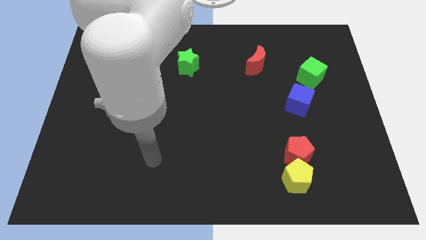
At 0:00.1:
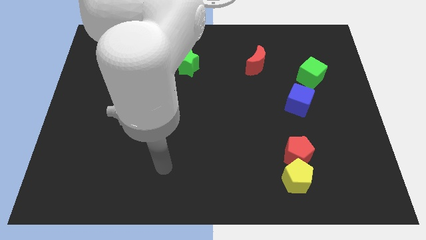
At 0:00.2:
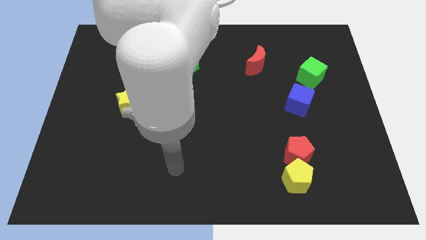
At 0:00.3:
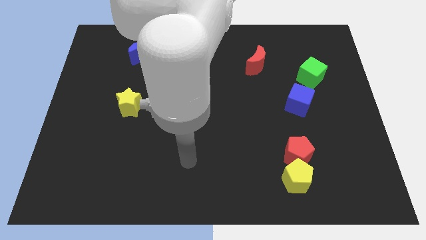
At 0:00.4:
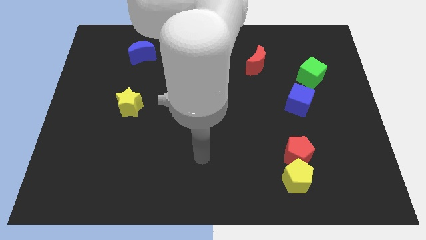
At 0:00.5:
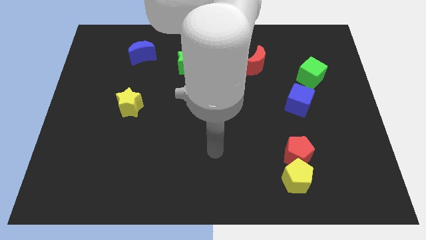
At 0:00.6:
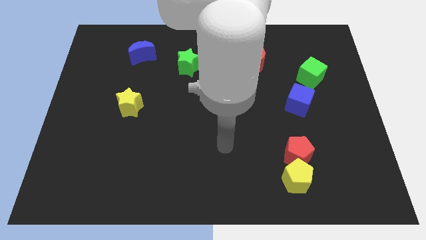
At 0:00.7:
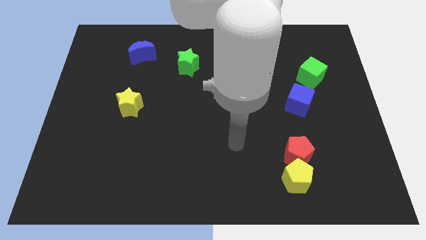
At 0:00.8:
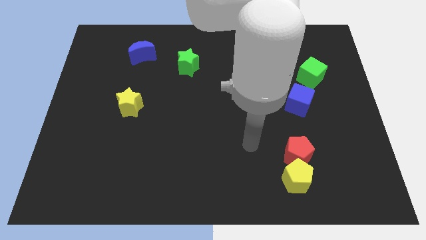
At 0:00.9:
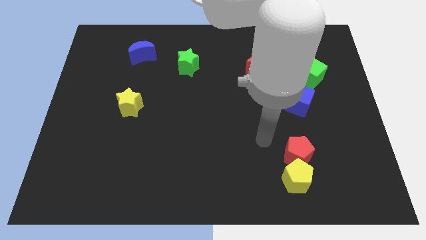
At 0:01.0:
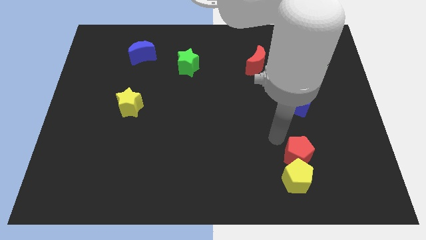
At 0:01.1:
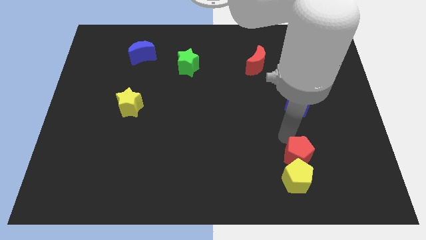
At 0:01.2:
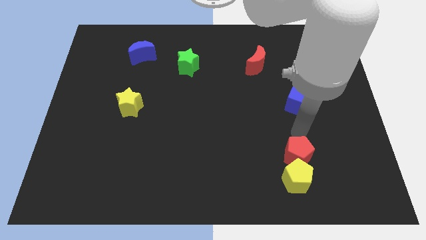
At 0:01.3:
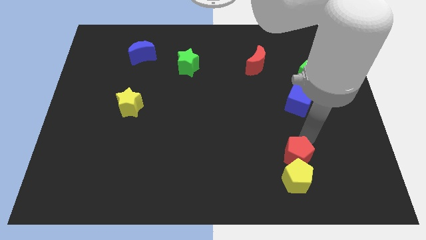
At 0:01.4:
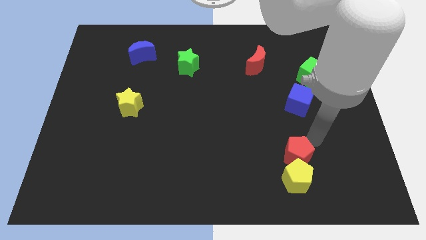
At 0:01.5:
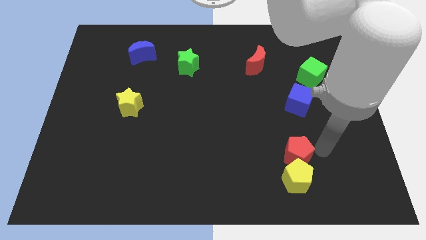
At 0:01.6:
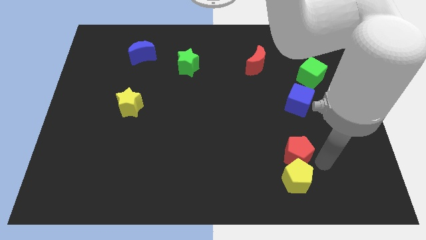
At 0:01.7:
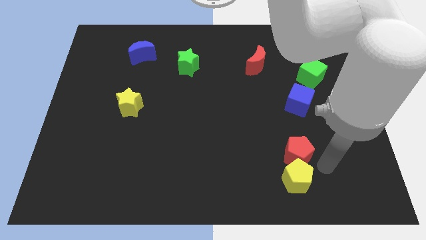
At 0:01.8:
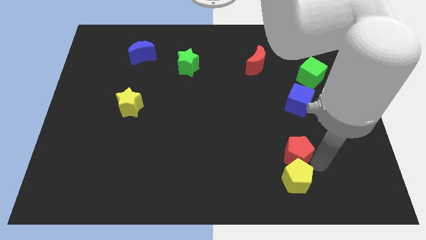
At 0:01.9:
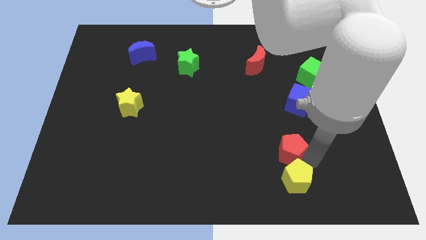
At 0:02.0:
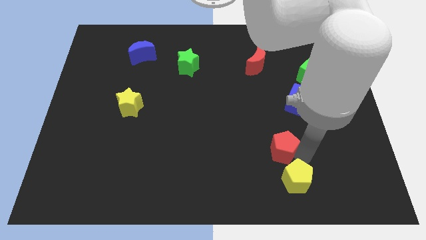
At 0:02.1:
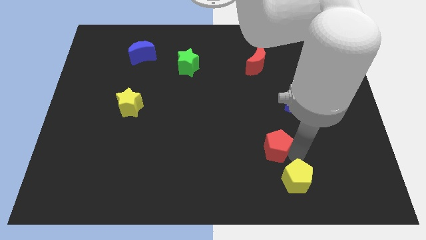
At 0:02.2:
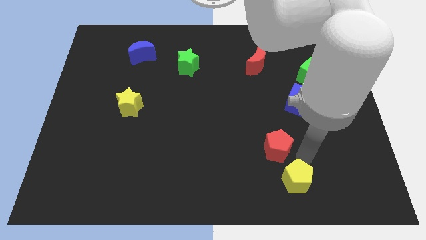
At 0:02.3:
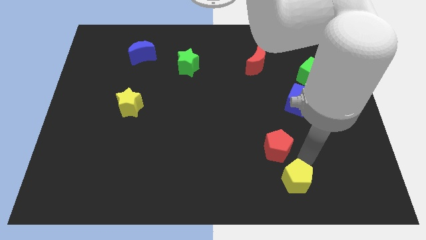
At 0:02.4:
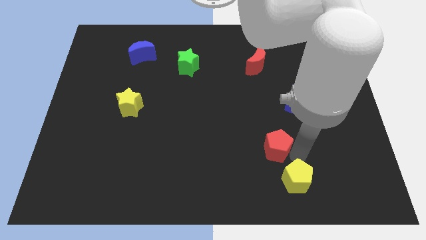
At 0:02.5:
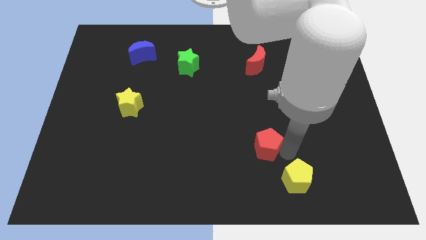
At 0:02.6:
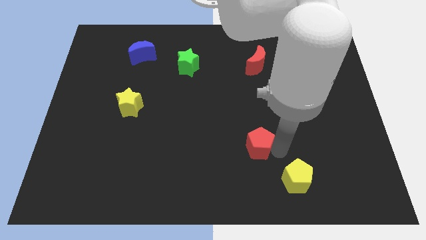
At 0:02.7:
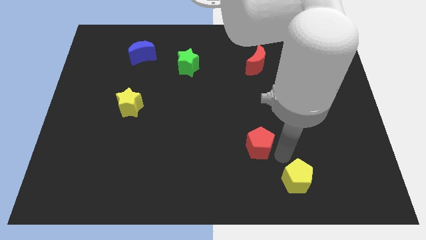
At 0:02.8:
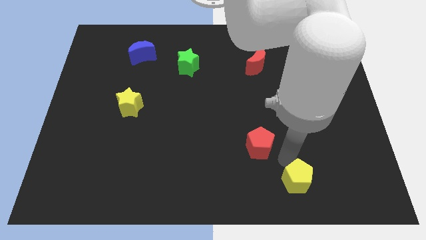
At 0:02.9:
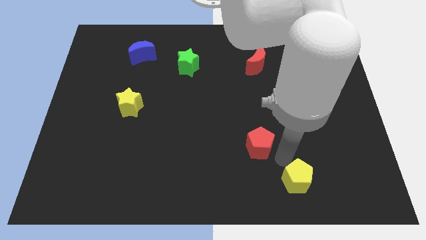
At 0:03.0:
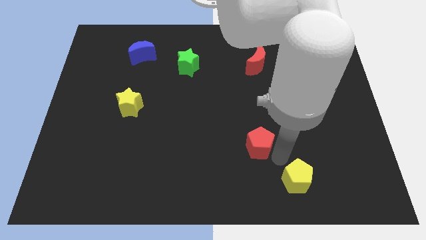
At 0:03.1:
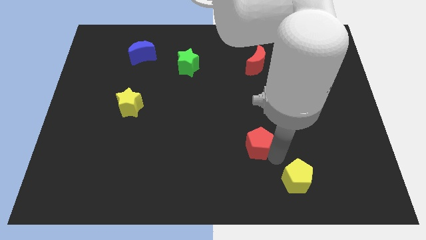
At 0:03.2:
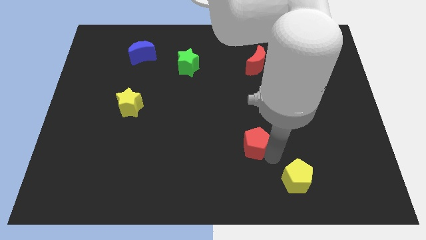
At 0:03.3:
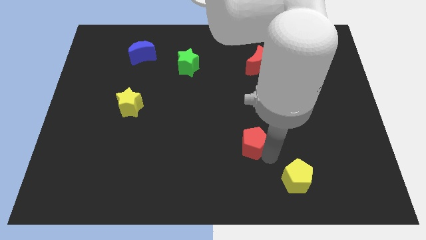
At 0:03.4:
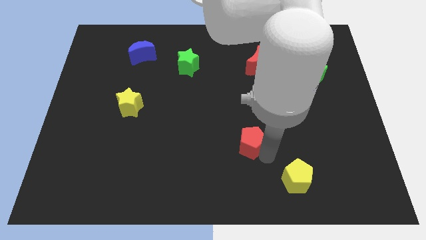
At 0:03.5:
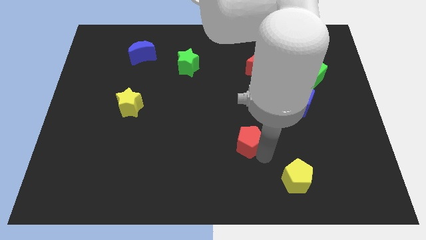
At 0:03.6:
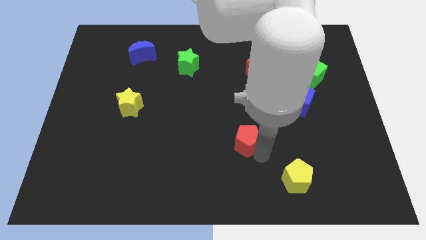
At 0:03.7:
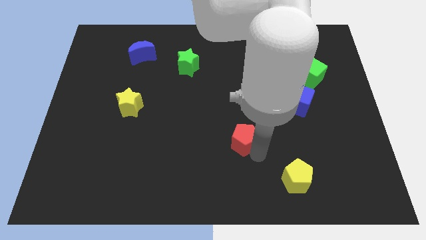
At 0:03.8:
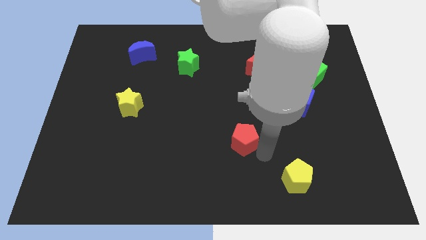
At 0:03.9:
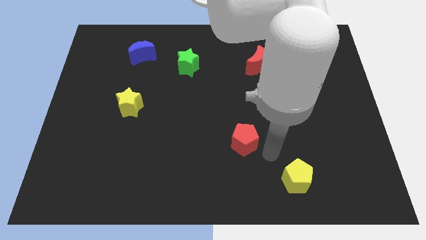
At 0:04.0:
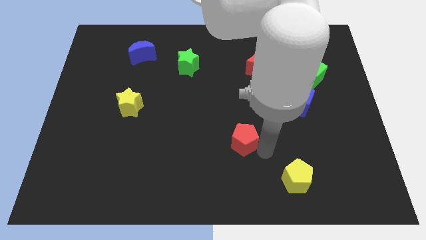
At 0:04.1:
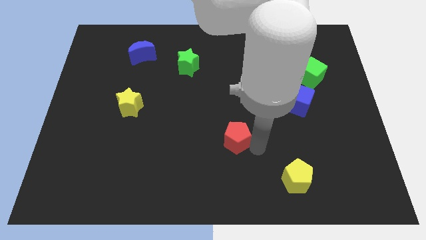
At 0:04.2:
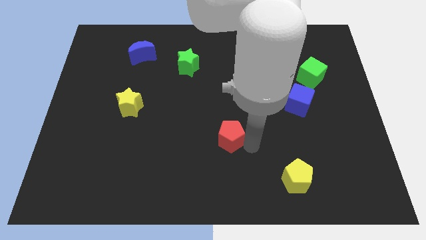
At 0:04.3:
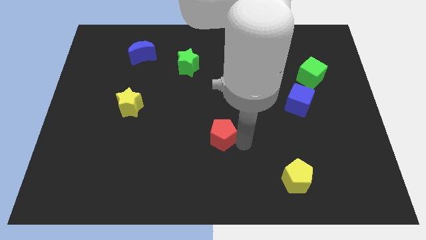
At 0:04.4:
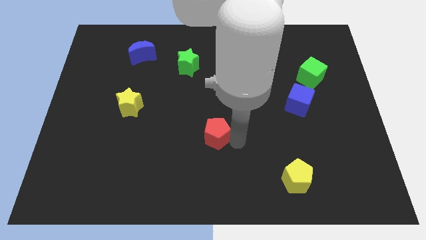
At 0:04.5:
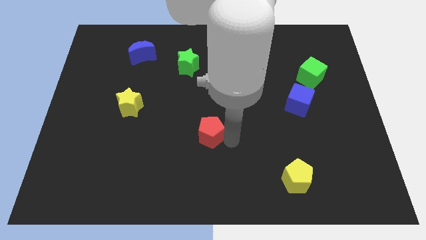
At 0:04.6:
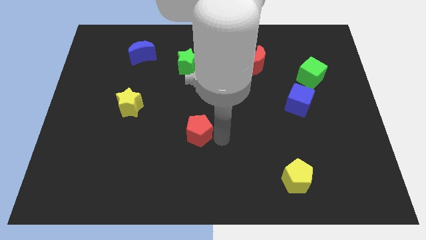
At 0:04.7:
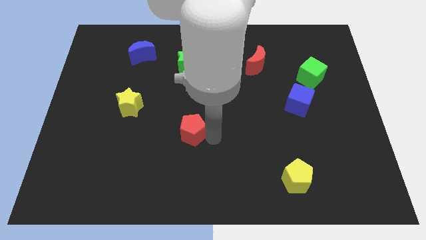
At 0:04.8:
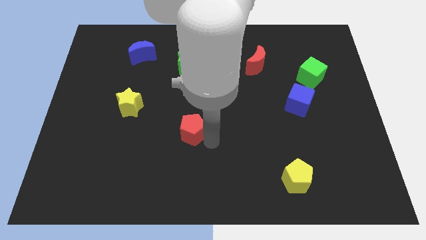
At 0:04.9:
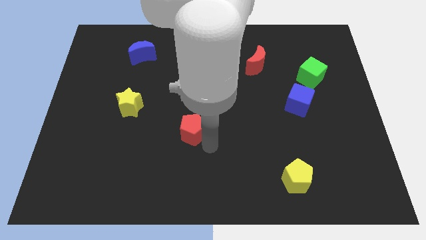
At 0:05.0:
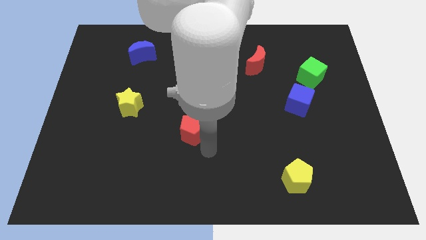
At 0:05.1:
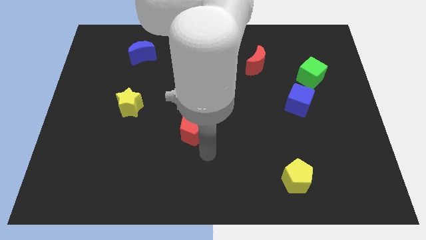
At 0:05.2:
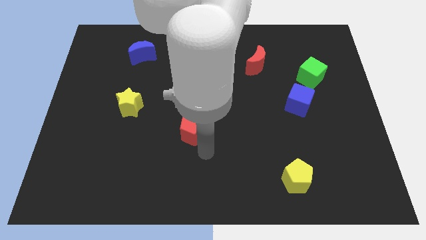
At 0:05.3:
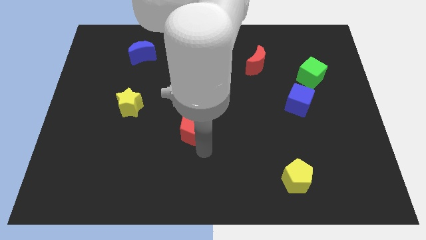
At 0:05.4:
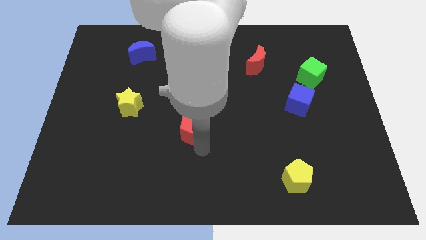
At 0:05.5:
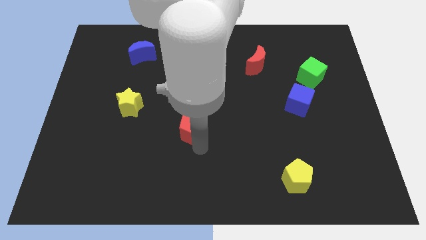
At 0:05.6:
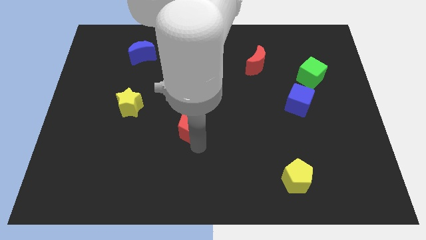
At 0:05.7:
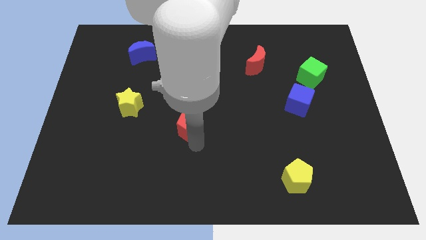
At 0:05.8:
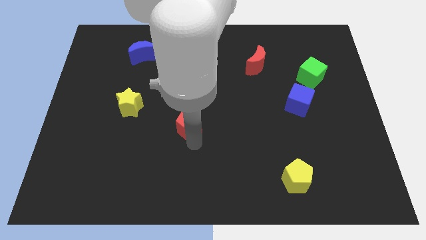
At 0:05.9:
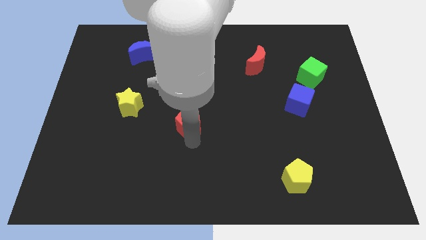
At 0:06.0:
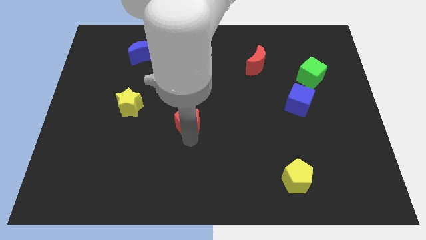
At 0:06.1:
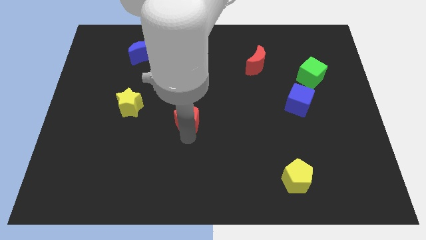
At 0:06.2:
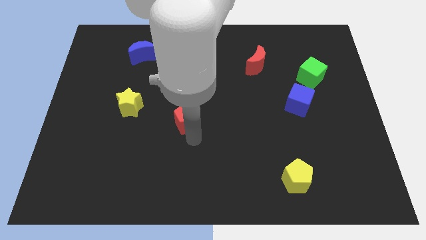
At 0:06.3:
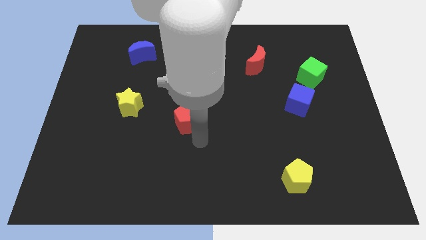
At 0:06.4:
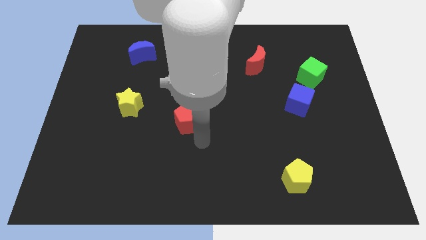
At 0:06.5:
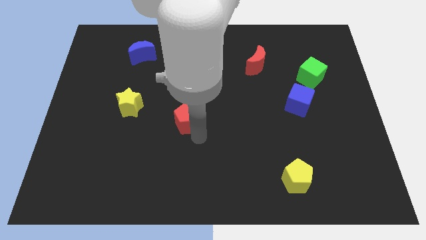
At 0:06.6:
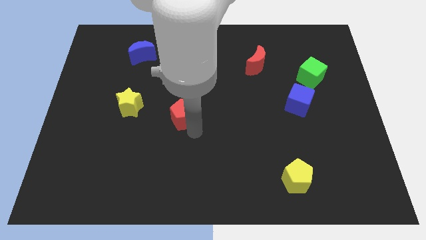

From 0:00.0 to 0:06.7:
move the red pentagon to the right of the yellow star
